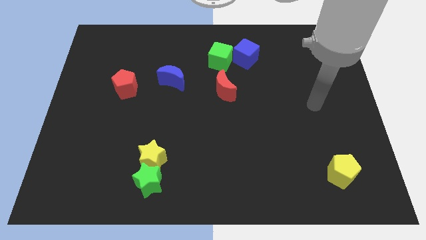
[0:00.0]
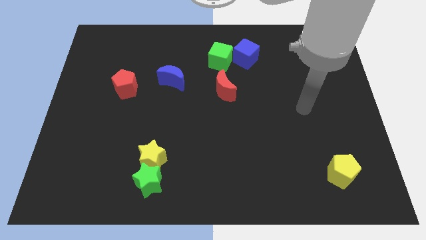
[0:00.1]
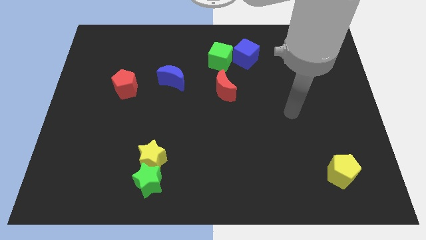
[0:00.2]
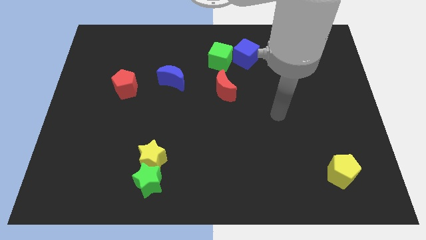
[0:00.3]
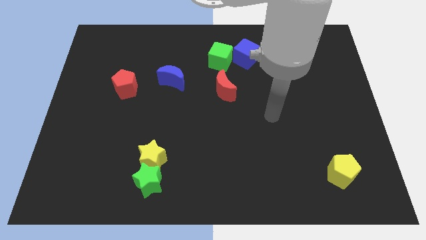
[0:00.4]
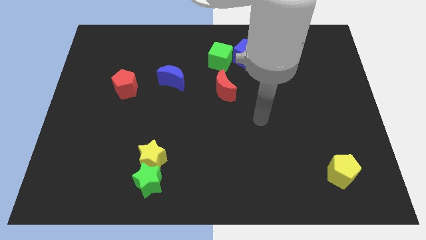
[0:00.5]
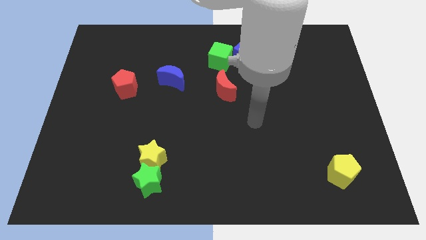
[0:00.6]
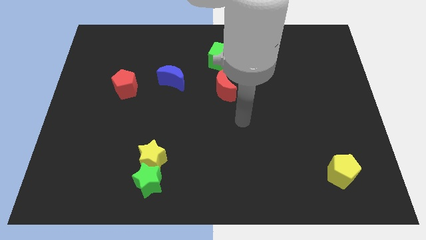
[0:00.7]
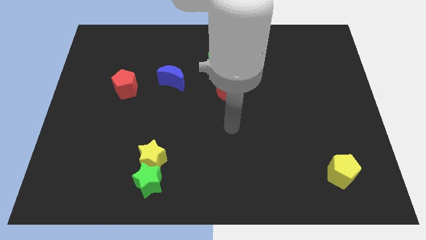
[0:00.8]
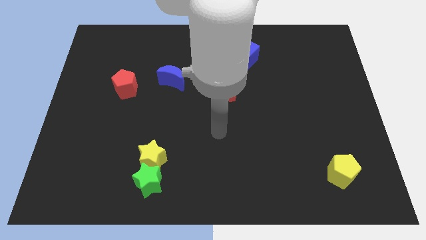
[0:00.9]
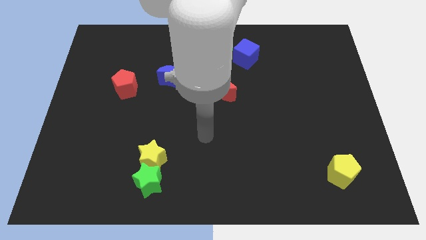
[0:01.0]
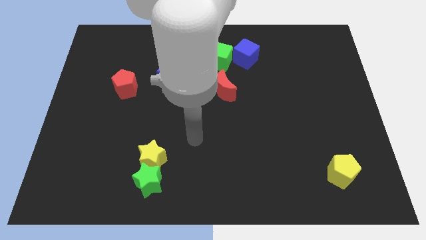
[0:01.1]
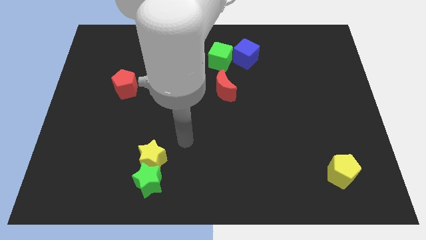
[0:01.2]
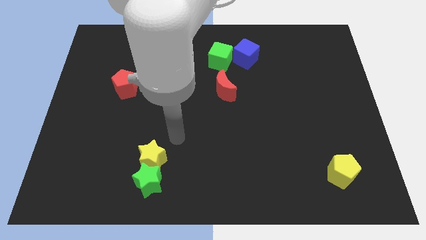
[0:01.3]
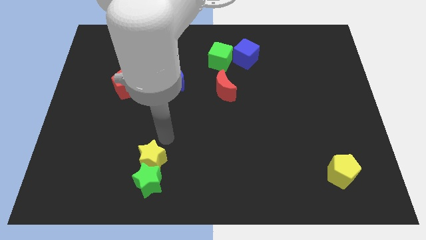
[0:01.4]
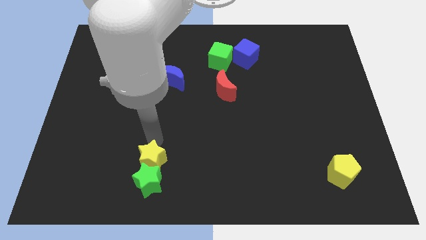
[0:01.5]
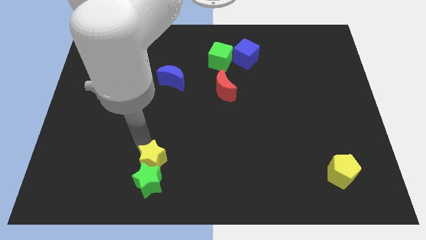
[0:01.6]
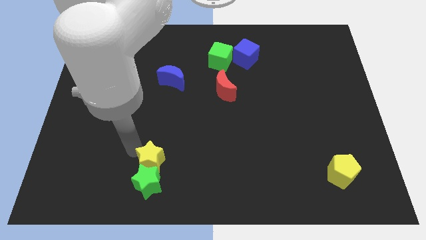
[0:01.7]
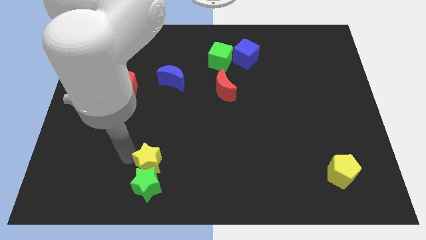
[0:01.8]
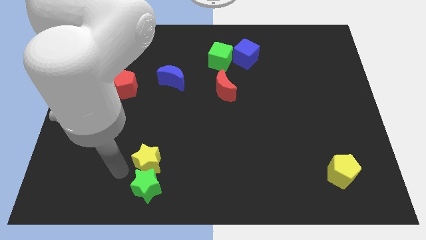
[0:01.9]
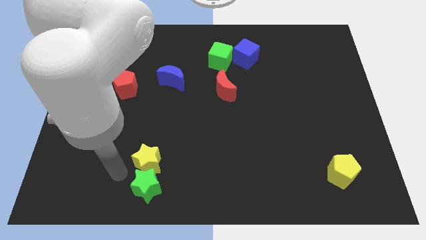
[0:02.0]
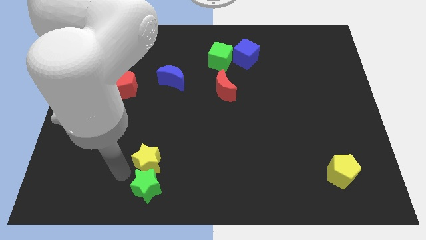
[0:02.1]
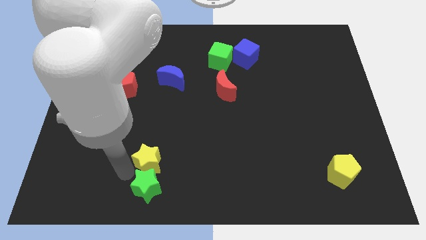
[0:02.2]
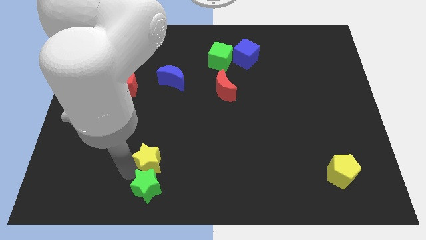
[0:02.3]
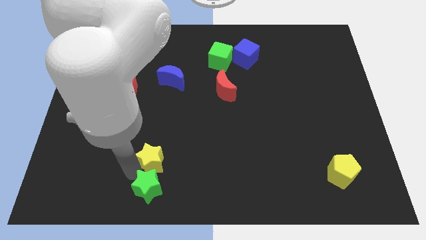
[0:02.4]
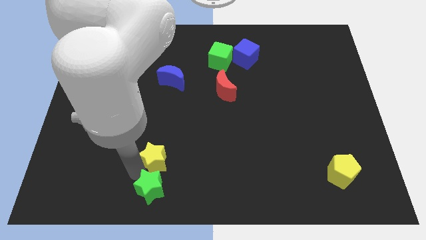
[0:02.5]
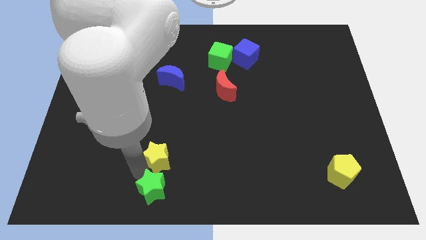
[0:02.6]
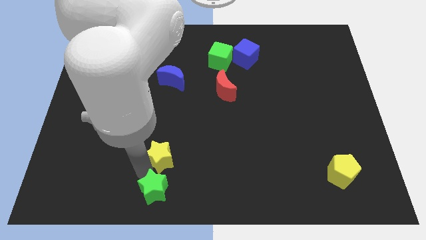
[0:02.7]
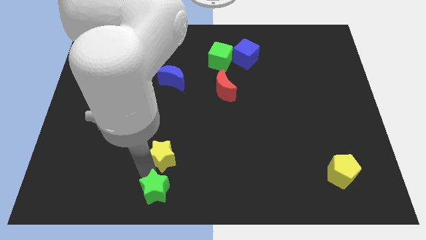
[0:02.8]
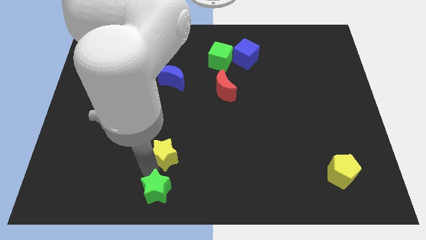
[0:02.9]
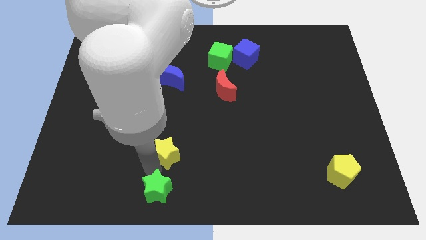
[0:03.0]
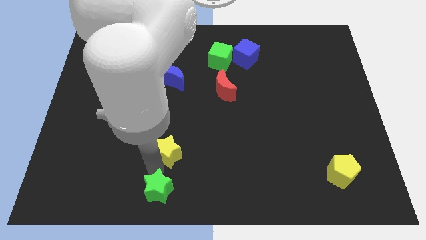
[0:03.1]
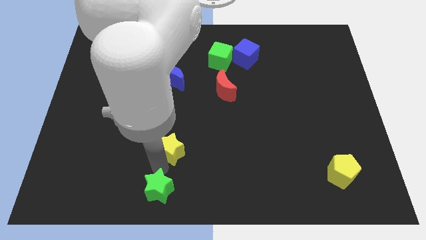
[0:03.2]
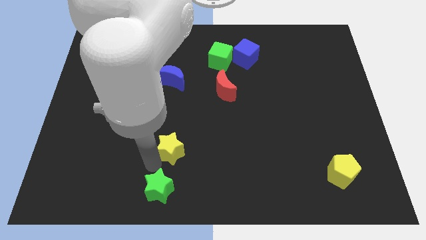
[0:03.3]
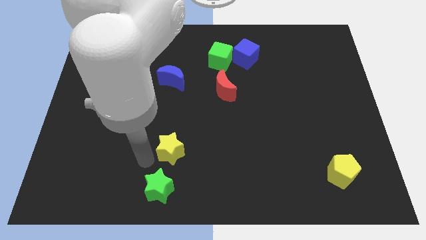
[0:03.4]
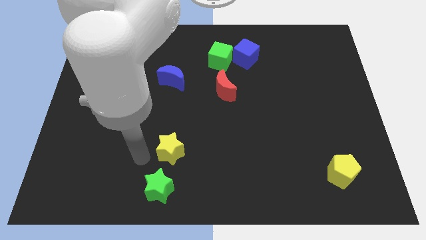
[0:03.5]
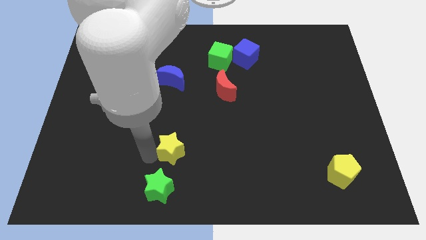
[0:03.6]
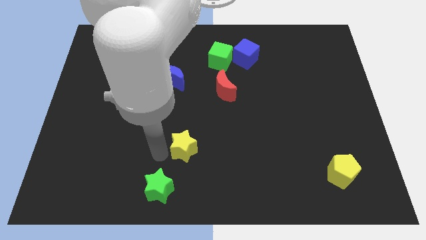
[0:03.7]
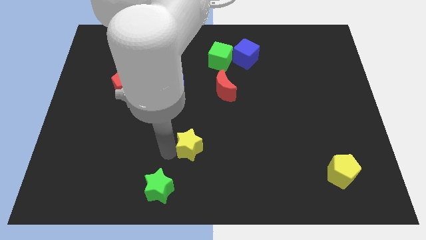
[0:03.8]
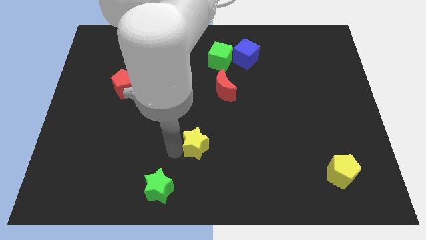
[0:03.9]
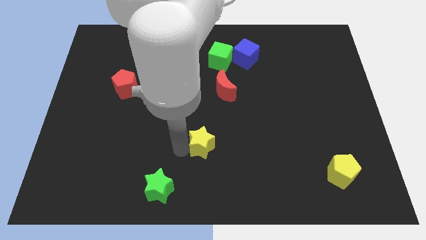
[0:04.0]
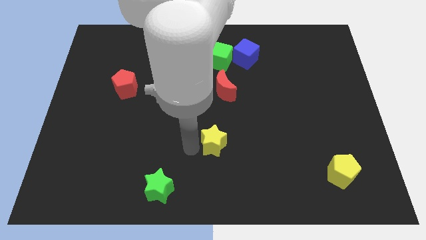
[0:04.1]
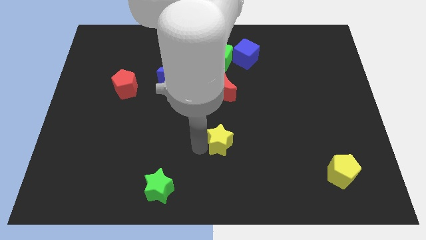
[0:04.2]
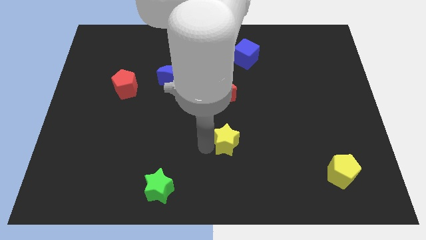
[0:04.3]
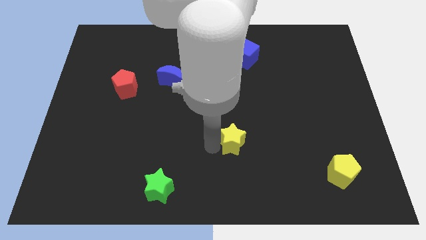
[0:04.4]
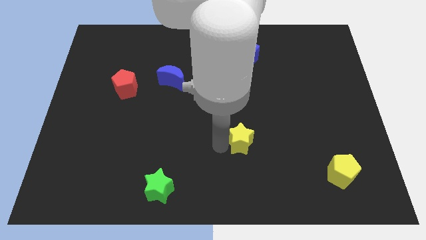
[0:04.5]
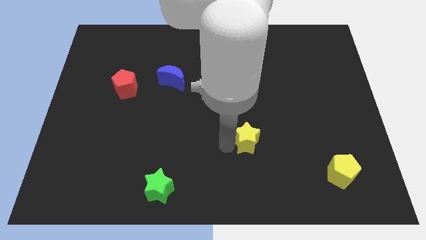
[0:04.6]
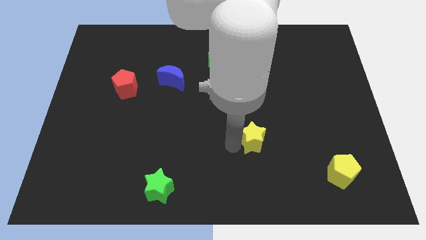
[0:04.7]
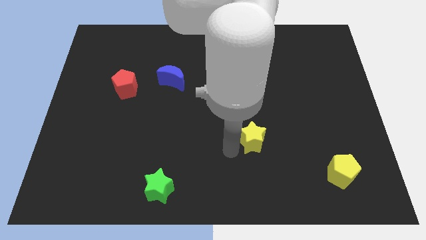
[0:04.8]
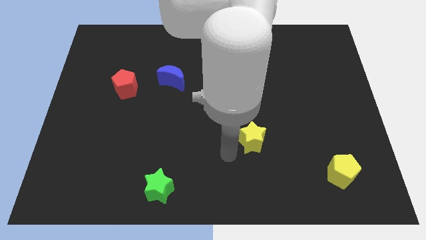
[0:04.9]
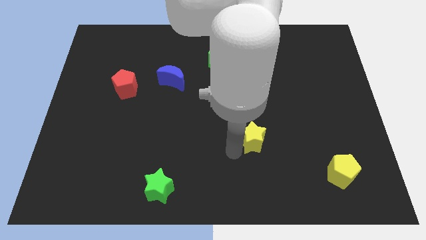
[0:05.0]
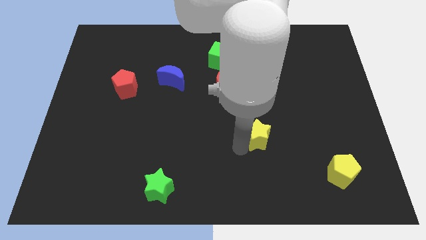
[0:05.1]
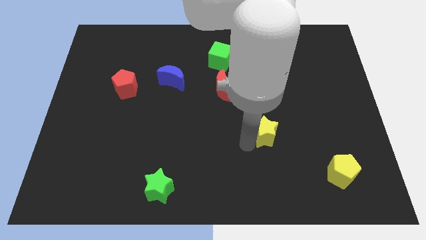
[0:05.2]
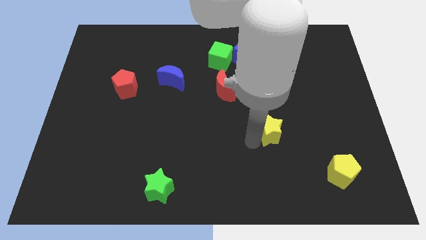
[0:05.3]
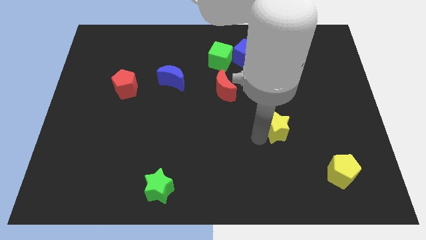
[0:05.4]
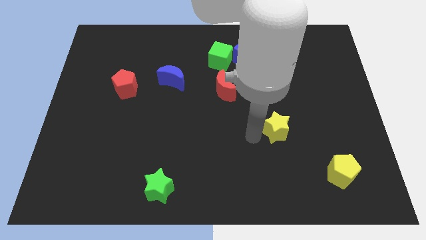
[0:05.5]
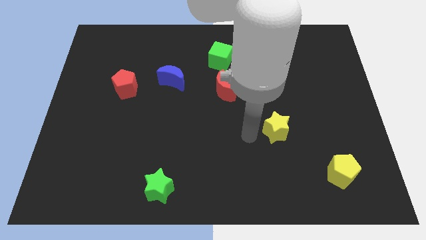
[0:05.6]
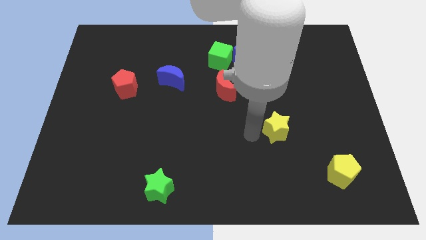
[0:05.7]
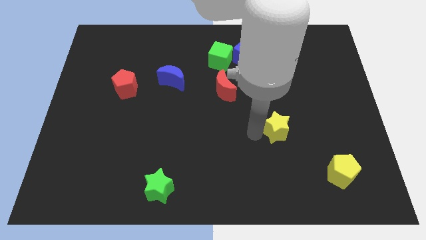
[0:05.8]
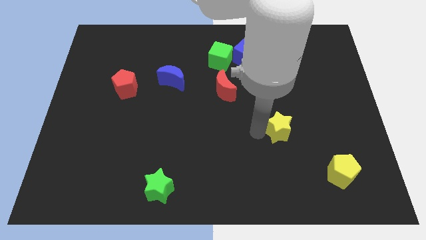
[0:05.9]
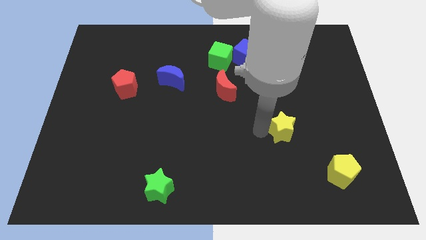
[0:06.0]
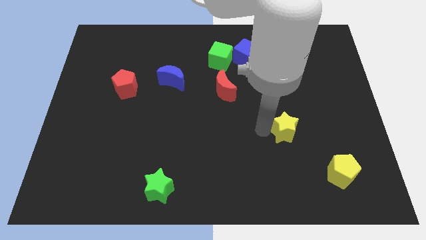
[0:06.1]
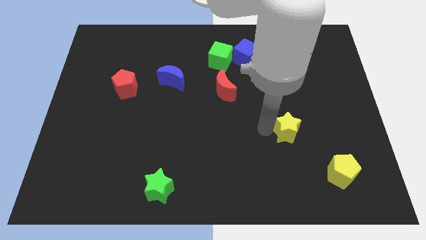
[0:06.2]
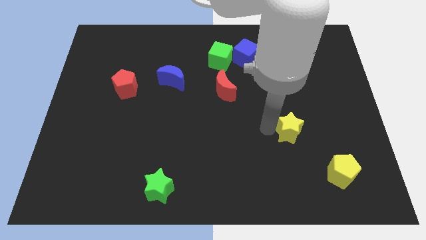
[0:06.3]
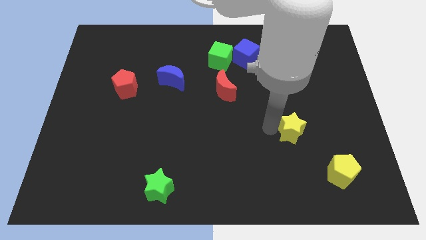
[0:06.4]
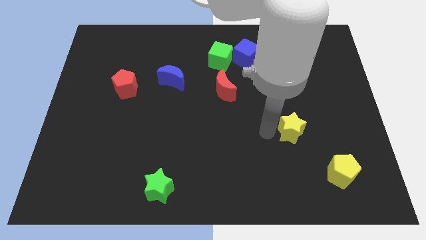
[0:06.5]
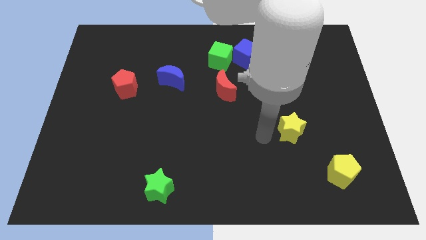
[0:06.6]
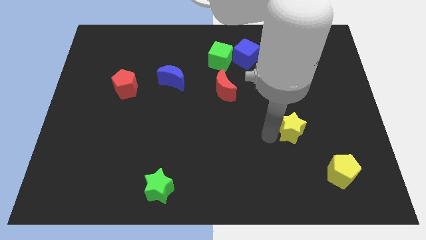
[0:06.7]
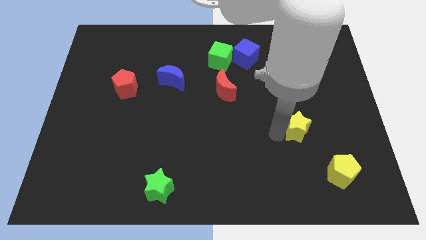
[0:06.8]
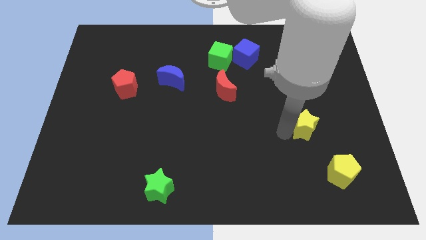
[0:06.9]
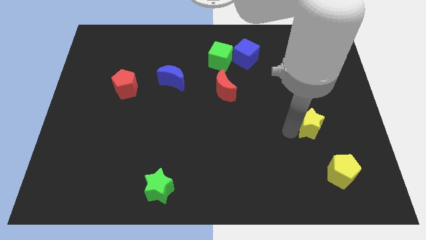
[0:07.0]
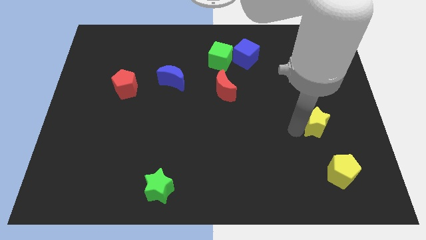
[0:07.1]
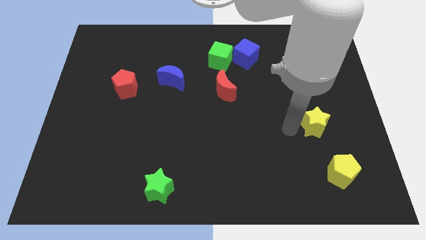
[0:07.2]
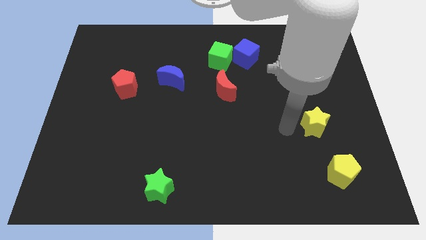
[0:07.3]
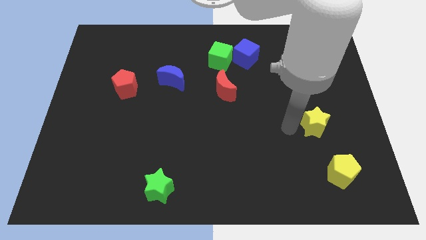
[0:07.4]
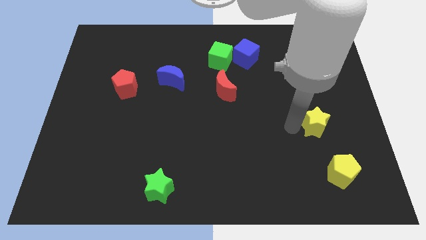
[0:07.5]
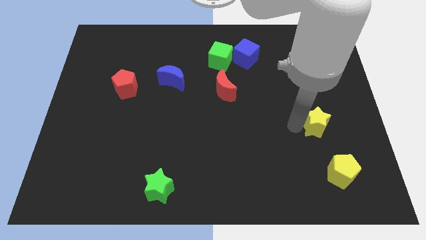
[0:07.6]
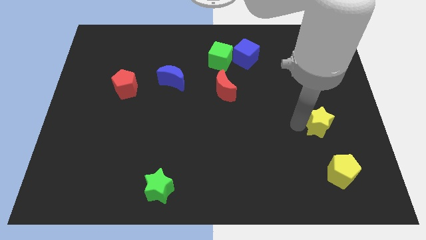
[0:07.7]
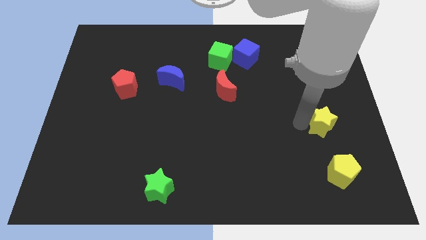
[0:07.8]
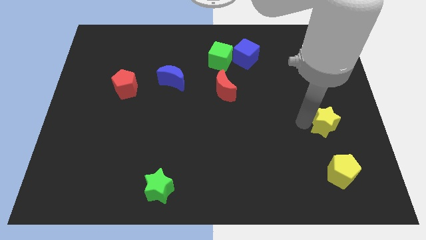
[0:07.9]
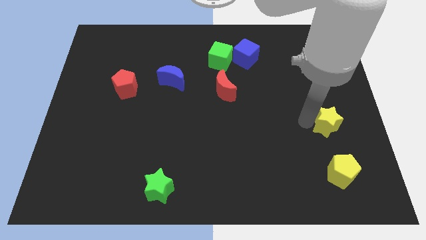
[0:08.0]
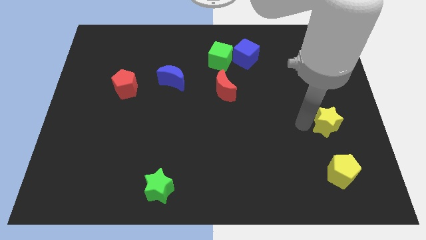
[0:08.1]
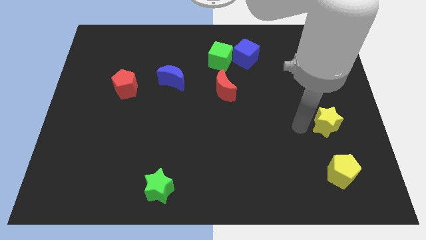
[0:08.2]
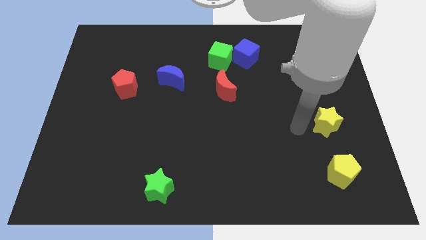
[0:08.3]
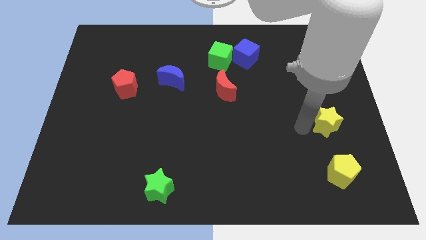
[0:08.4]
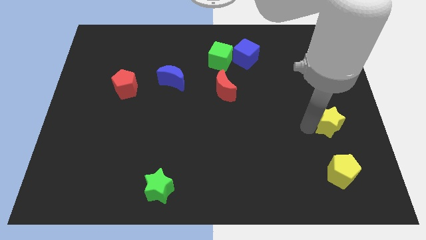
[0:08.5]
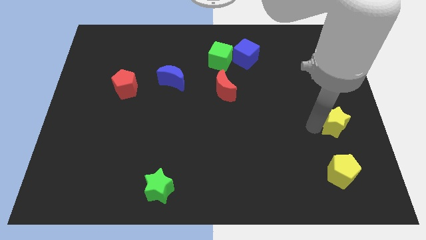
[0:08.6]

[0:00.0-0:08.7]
push the yellow star to the right side of the board
